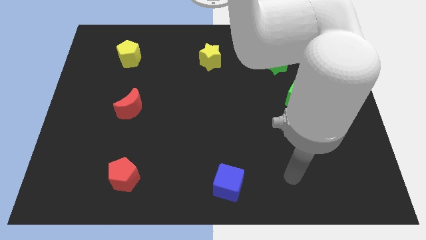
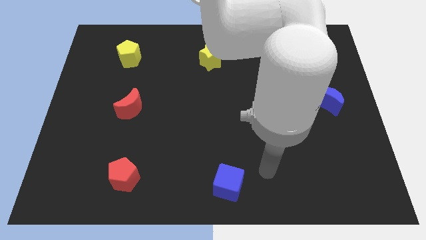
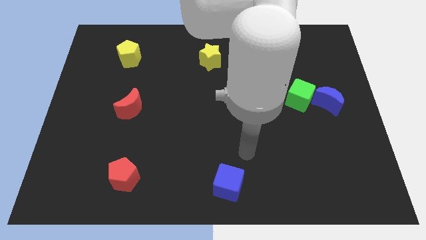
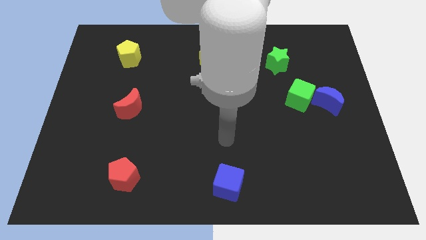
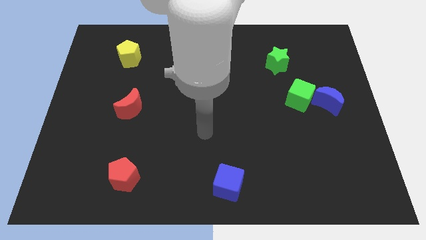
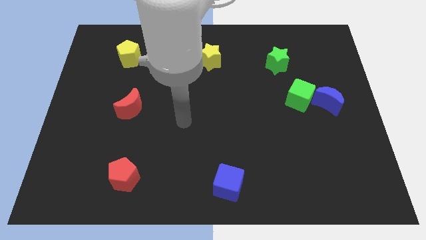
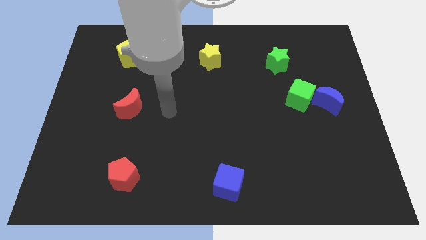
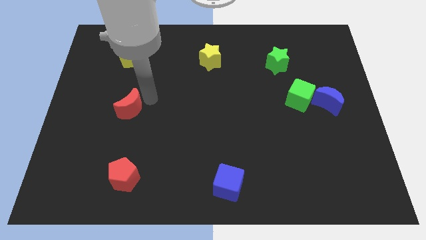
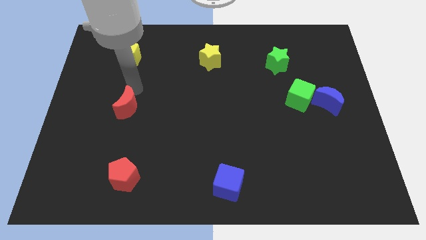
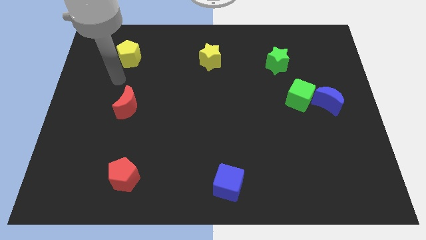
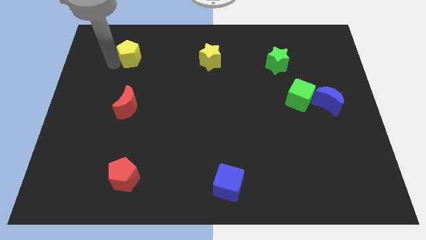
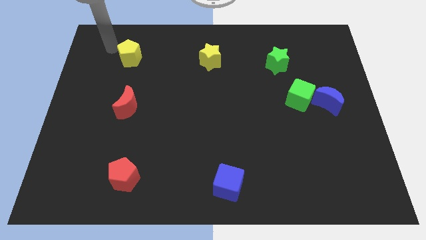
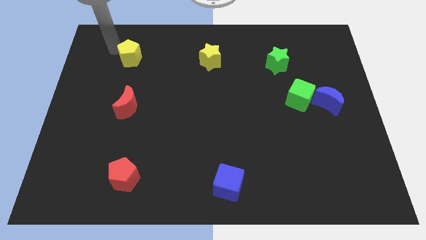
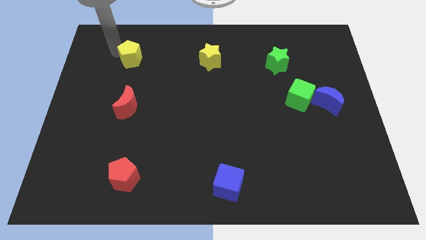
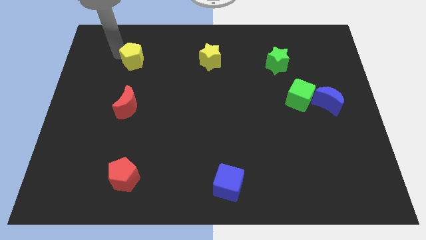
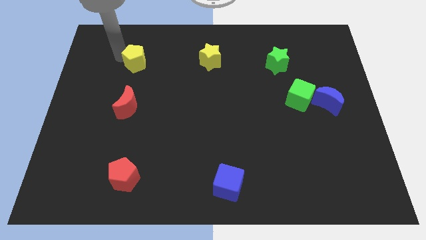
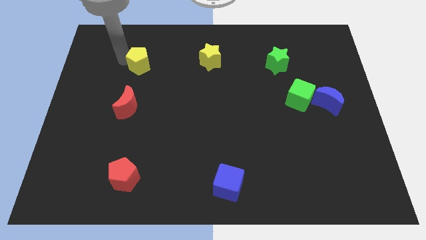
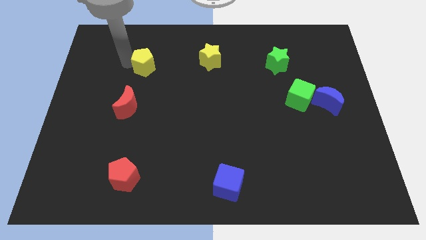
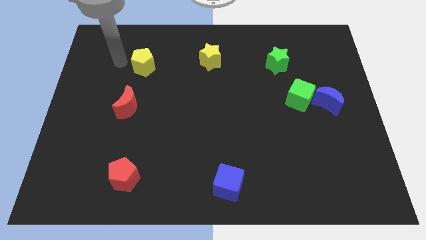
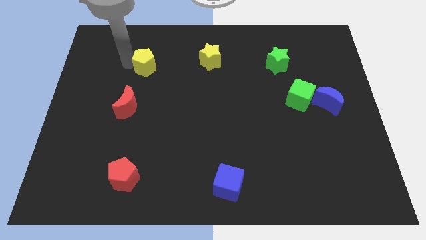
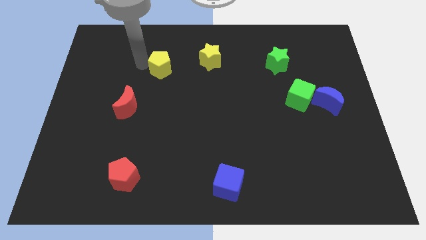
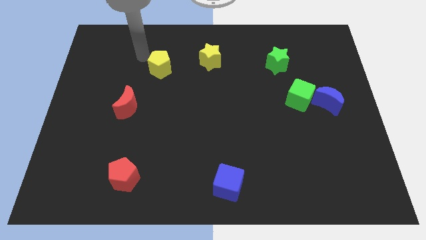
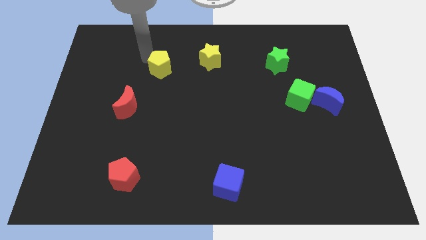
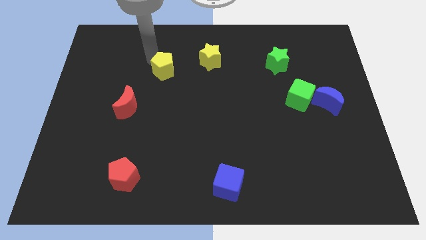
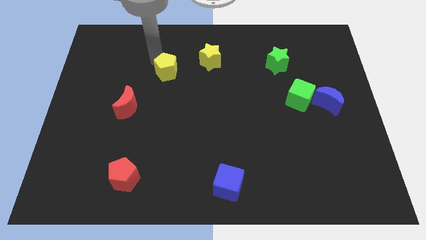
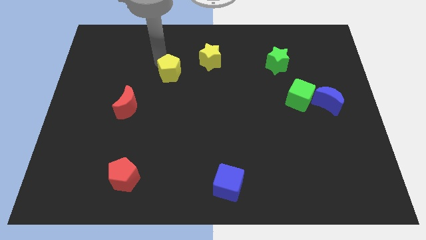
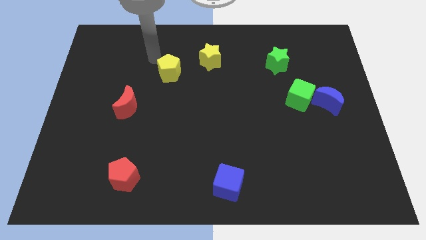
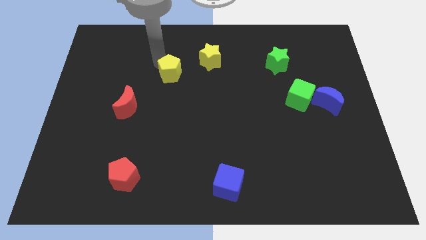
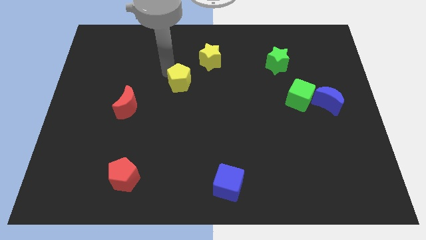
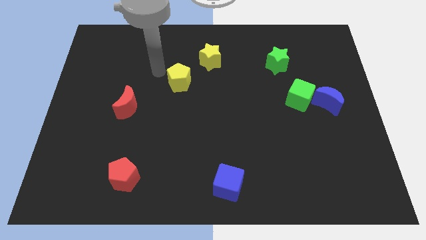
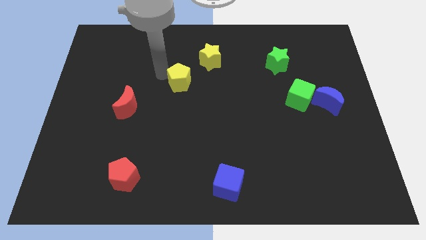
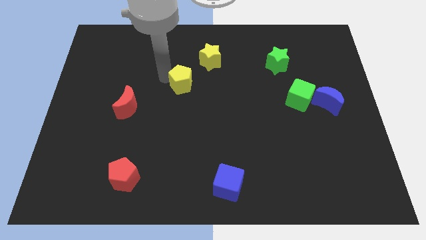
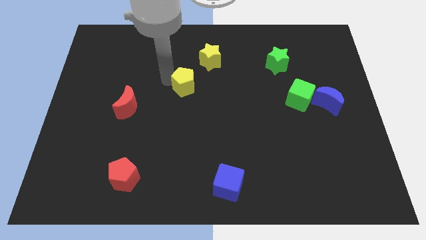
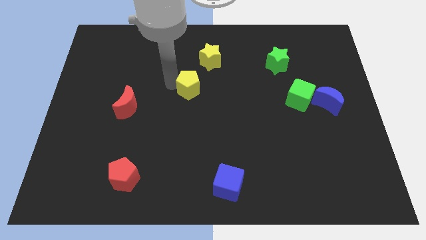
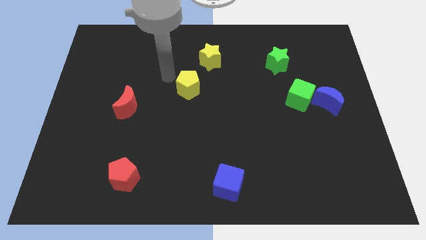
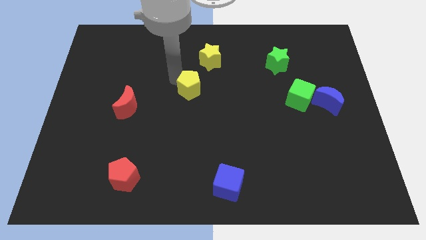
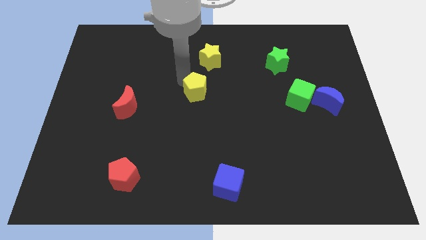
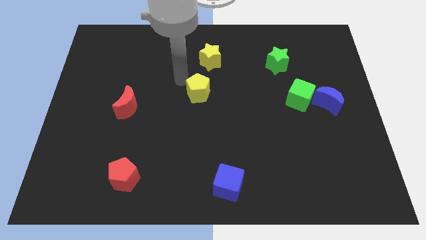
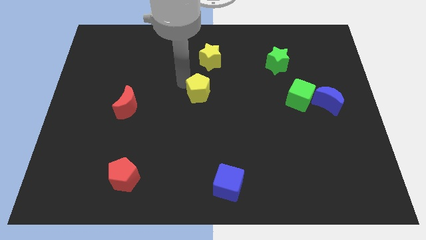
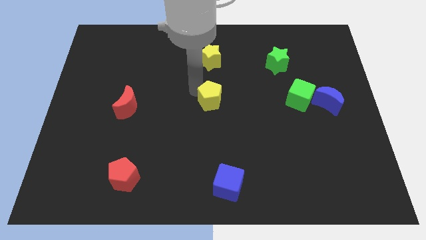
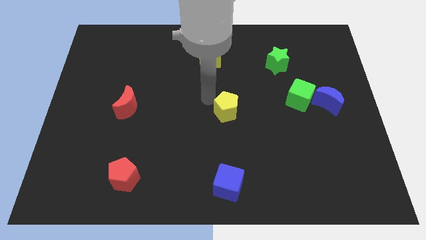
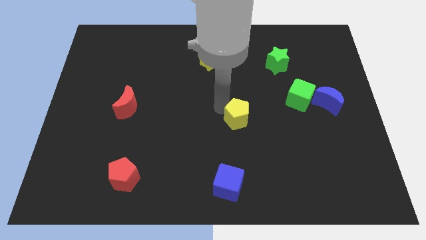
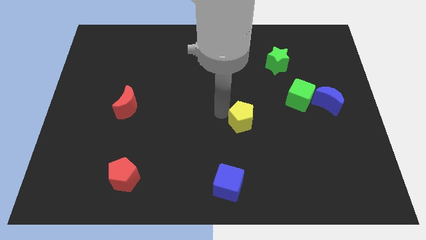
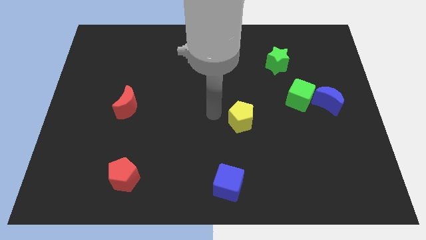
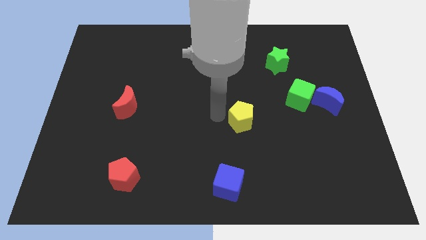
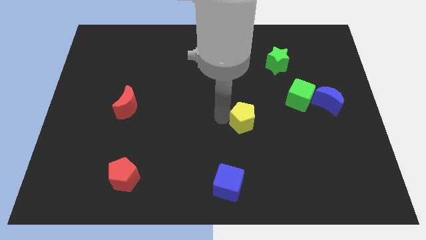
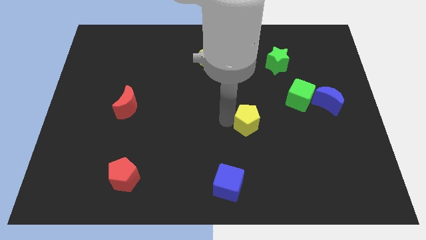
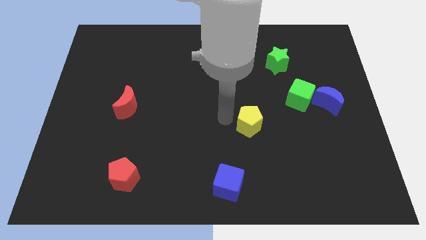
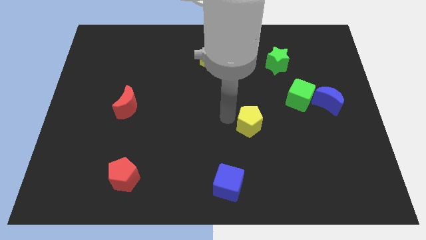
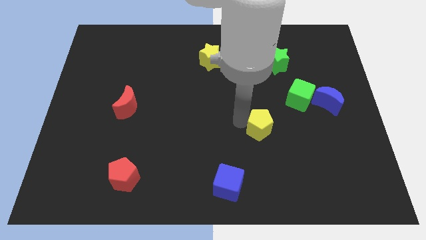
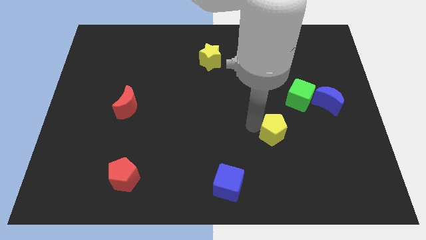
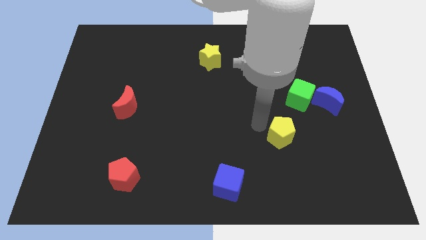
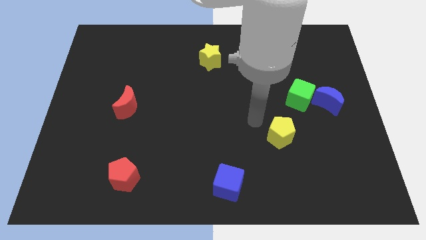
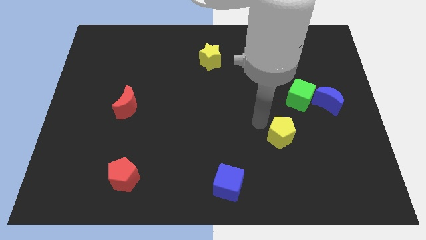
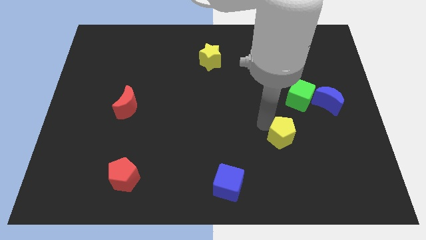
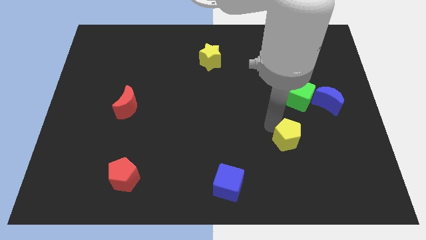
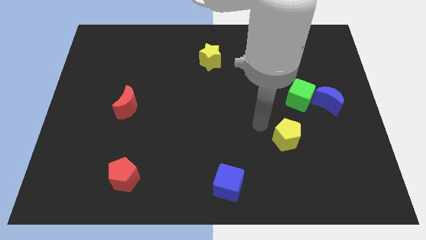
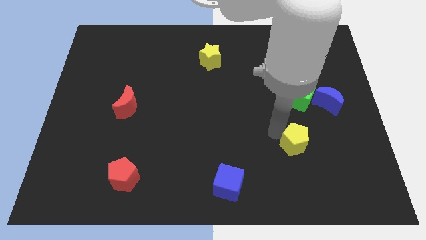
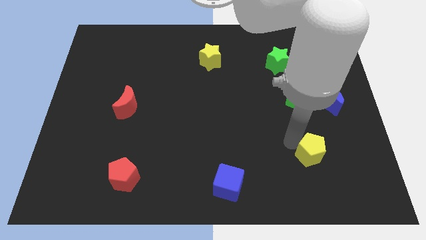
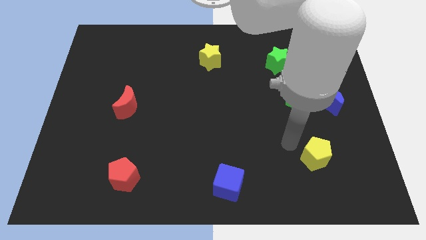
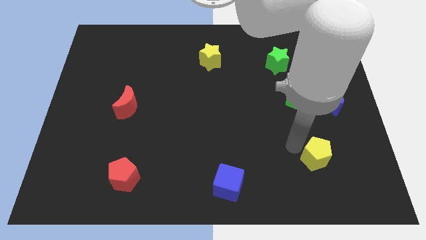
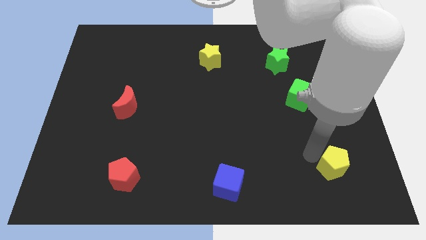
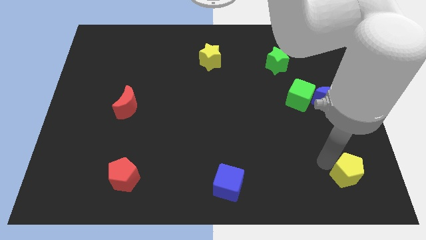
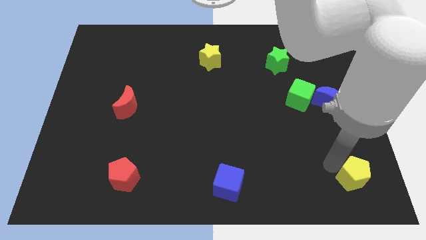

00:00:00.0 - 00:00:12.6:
put the yellow pentagon to the bottom right
